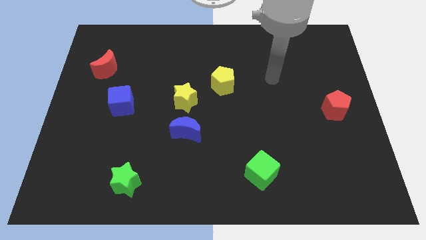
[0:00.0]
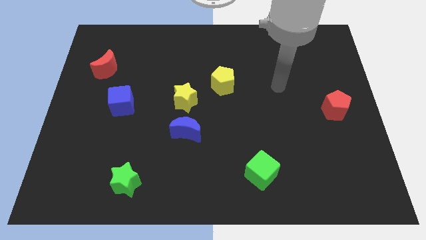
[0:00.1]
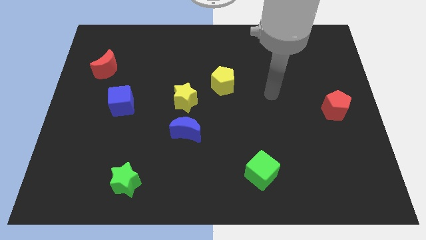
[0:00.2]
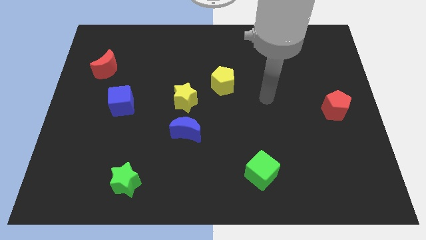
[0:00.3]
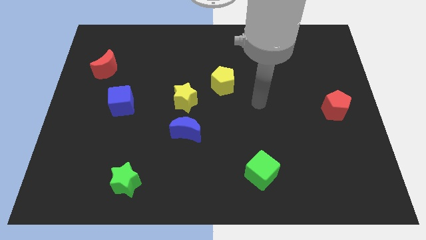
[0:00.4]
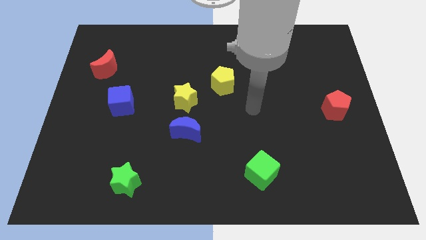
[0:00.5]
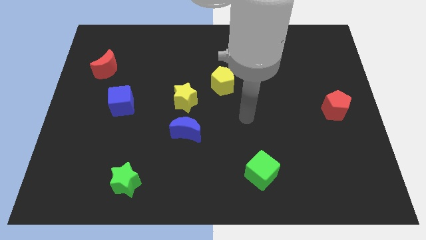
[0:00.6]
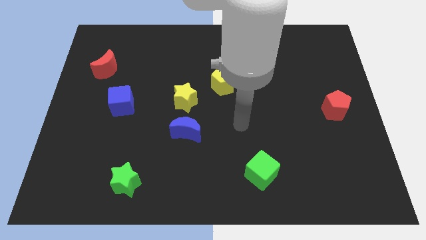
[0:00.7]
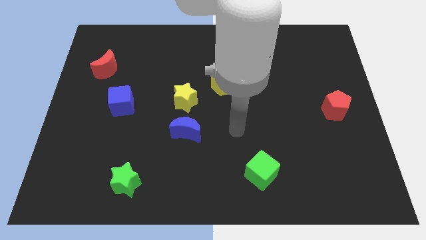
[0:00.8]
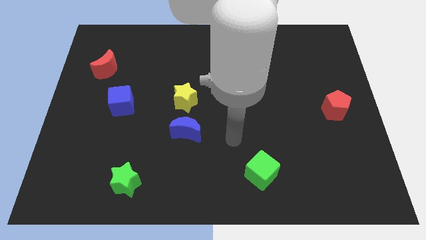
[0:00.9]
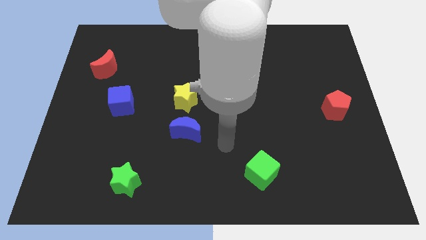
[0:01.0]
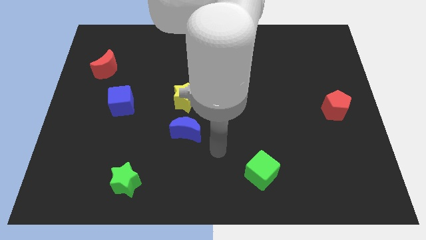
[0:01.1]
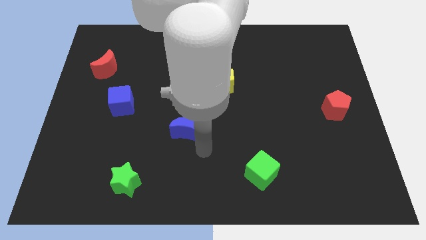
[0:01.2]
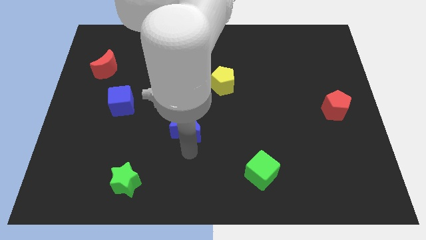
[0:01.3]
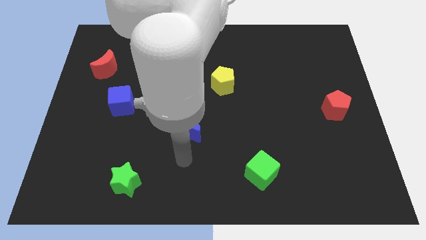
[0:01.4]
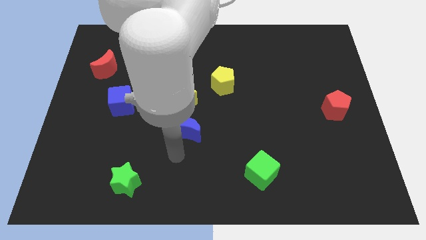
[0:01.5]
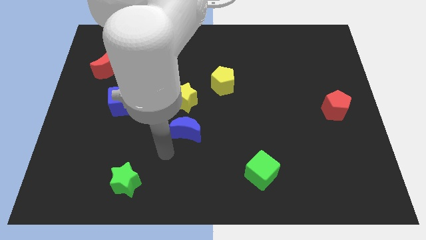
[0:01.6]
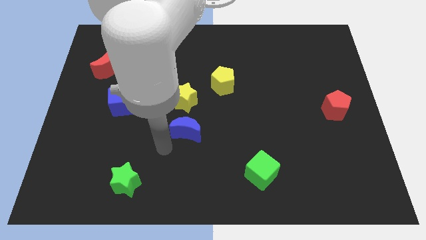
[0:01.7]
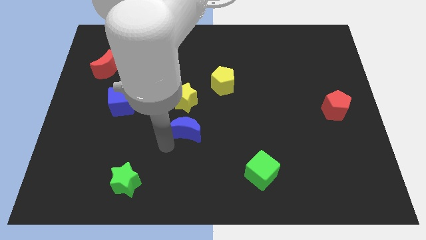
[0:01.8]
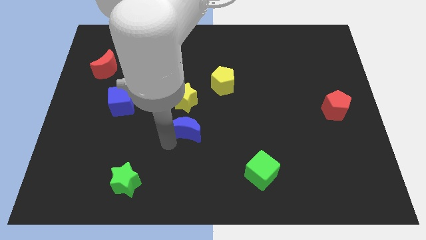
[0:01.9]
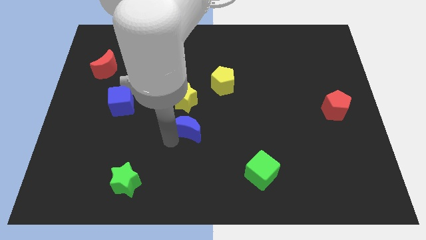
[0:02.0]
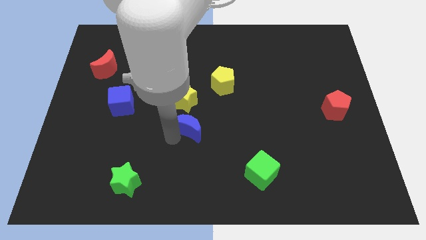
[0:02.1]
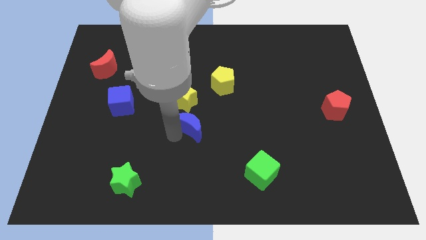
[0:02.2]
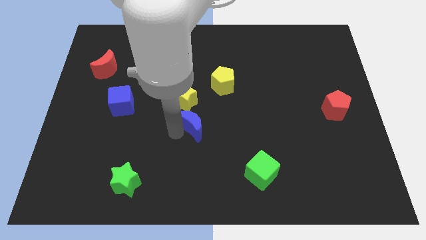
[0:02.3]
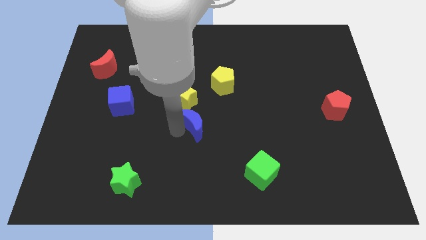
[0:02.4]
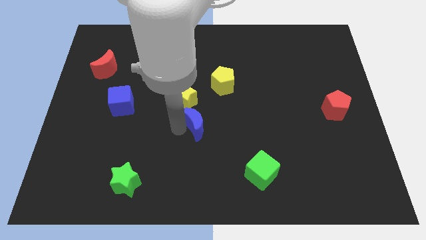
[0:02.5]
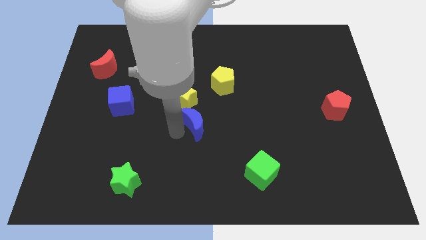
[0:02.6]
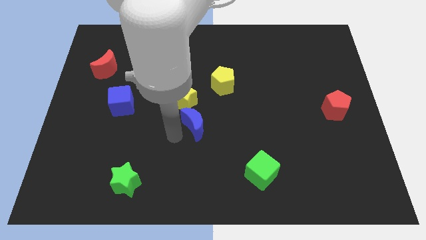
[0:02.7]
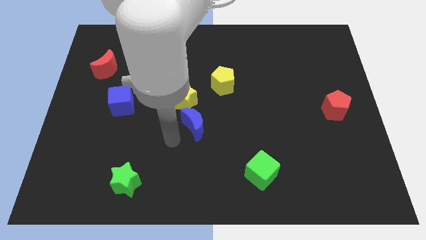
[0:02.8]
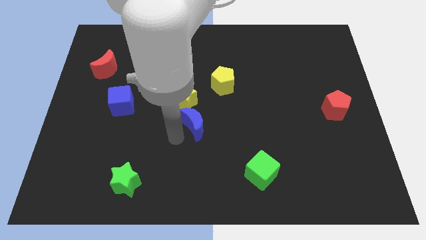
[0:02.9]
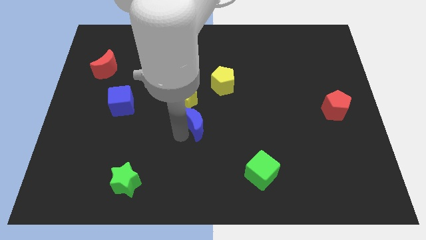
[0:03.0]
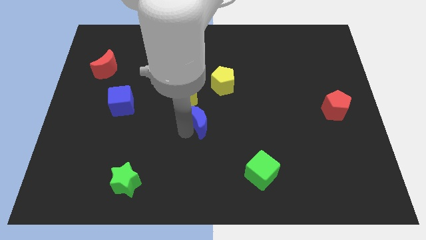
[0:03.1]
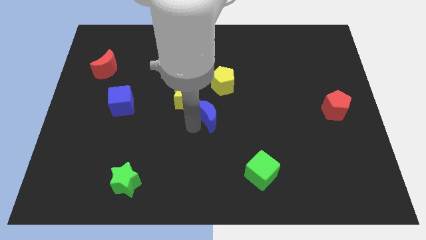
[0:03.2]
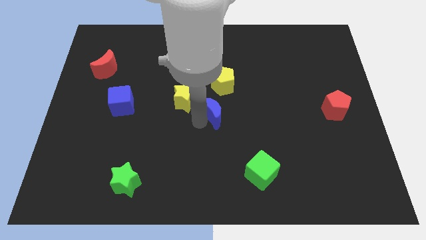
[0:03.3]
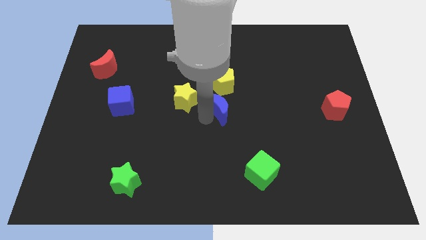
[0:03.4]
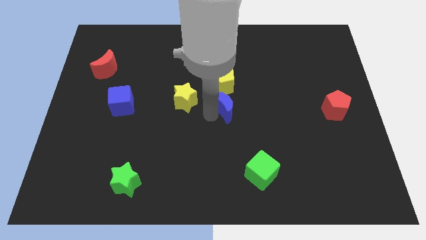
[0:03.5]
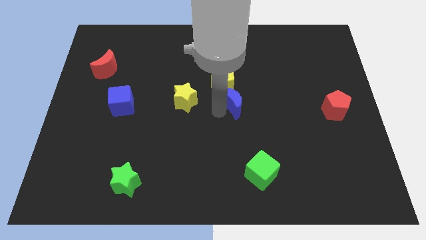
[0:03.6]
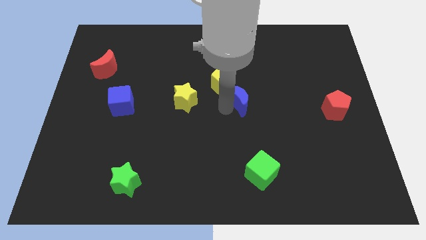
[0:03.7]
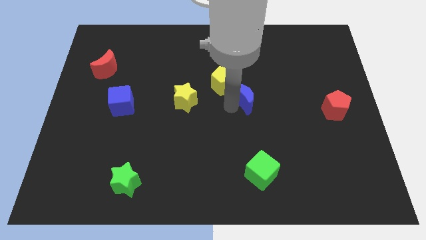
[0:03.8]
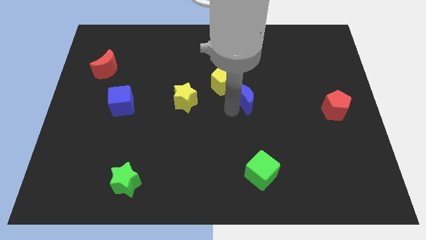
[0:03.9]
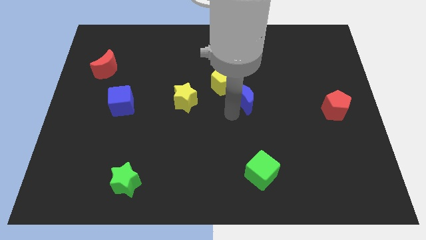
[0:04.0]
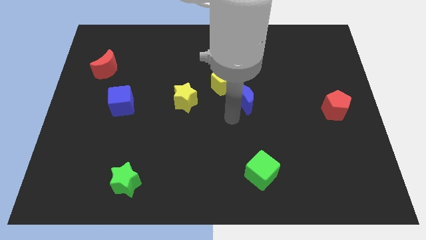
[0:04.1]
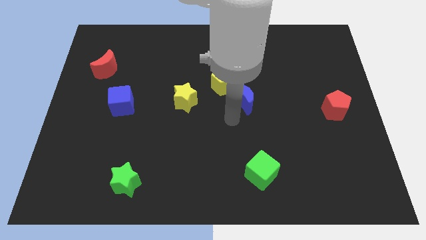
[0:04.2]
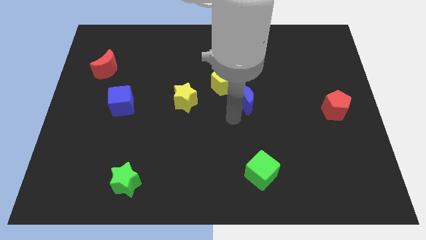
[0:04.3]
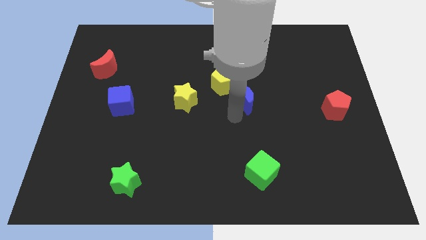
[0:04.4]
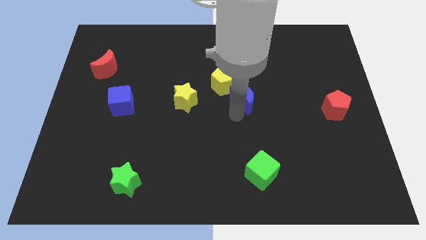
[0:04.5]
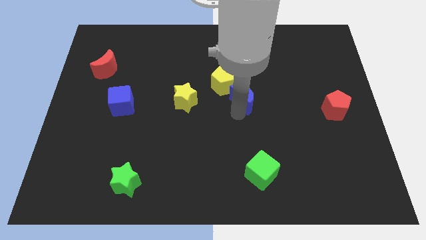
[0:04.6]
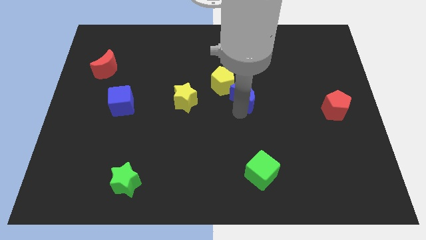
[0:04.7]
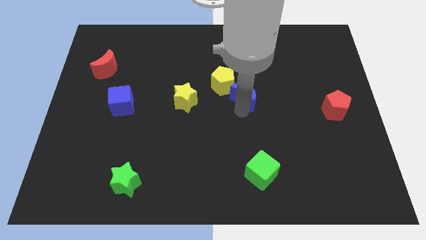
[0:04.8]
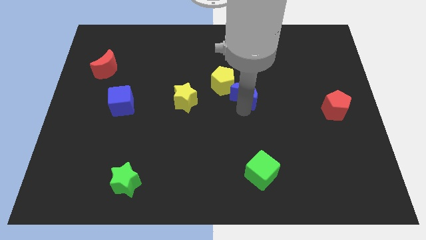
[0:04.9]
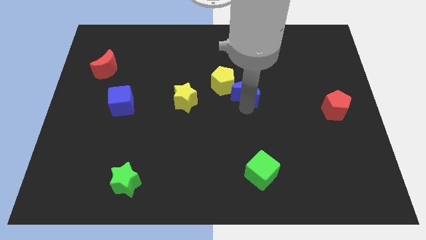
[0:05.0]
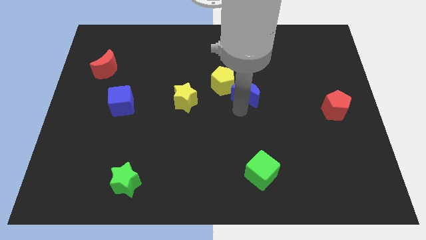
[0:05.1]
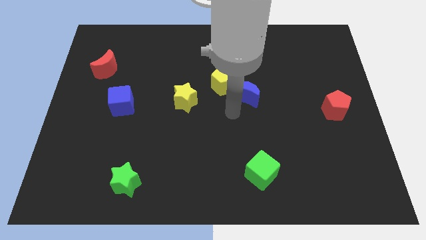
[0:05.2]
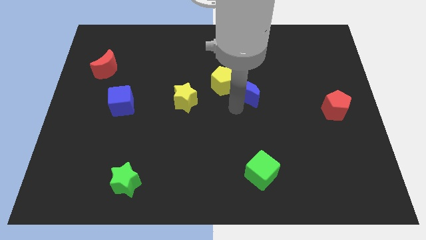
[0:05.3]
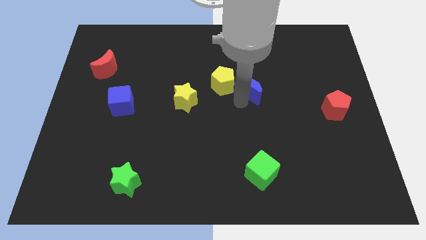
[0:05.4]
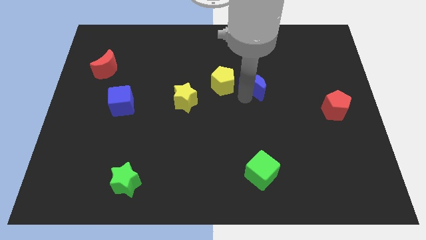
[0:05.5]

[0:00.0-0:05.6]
move the blue moon upwards and to the right diagonally

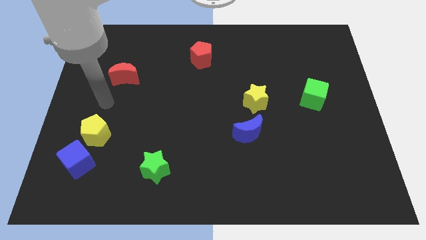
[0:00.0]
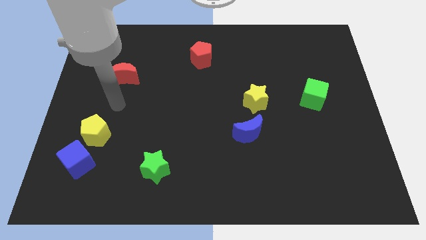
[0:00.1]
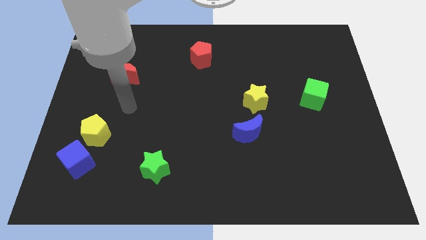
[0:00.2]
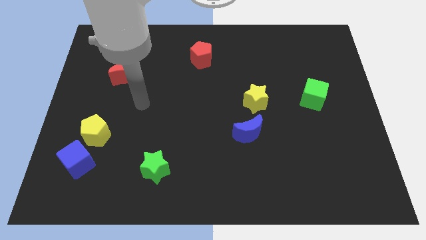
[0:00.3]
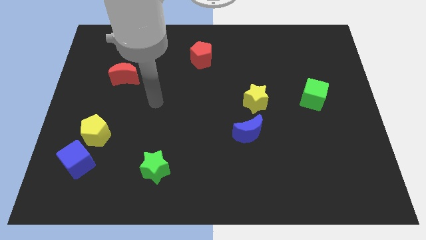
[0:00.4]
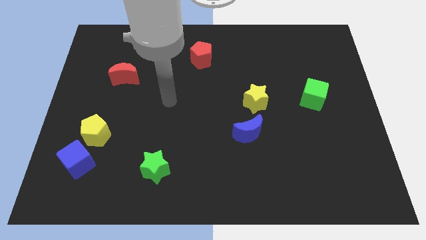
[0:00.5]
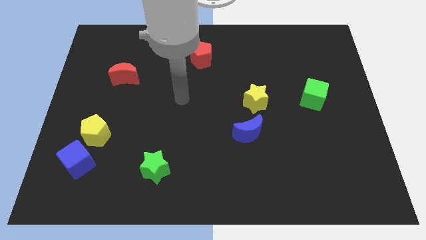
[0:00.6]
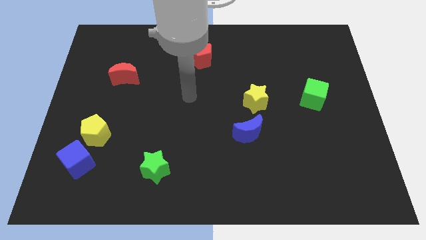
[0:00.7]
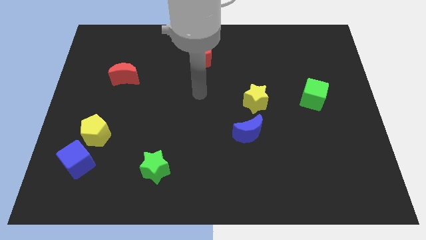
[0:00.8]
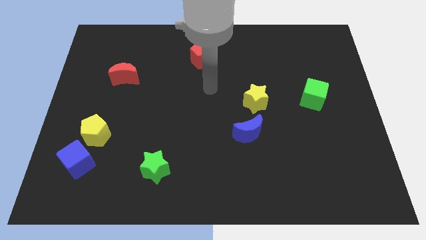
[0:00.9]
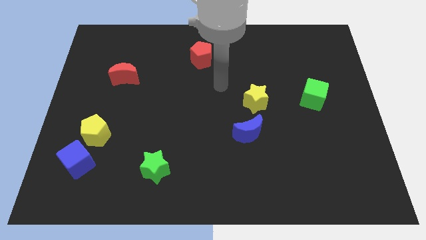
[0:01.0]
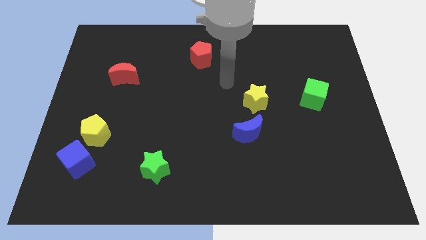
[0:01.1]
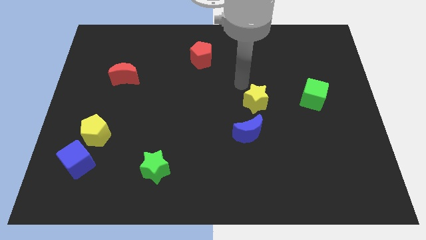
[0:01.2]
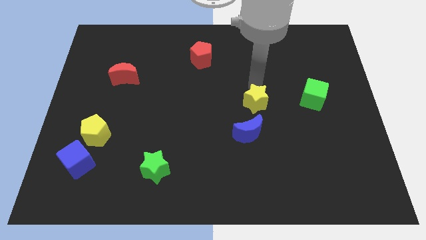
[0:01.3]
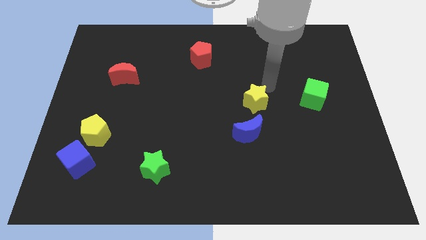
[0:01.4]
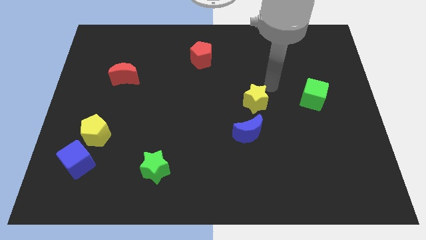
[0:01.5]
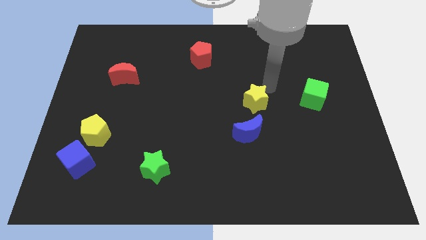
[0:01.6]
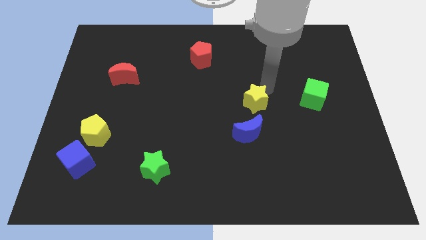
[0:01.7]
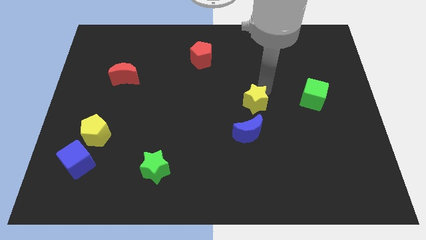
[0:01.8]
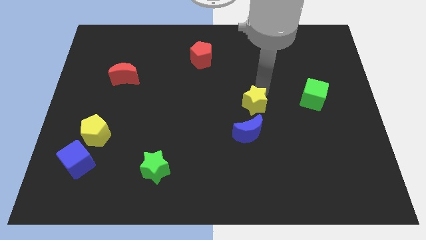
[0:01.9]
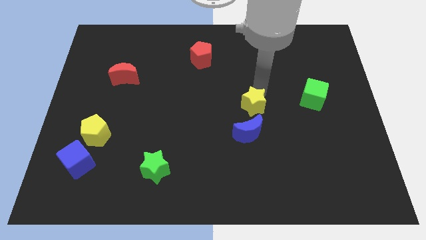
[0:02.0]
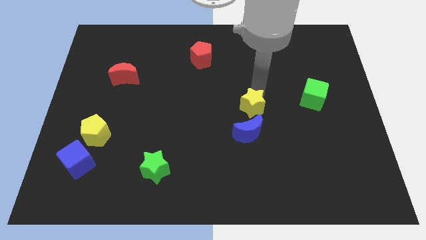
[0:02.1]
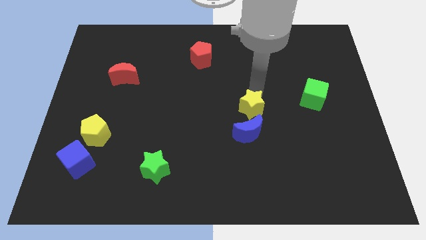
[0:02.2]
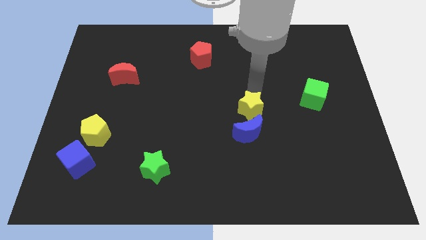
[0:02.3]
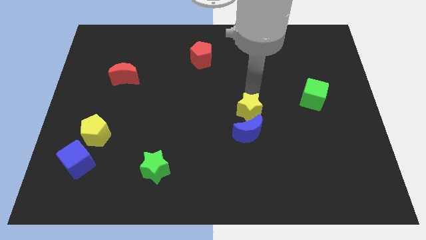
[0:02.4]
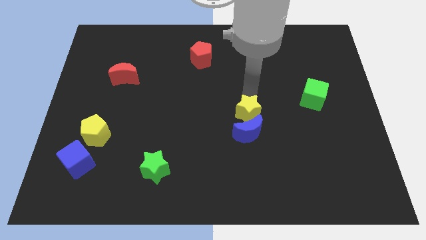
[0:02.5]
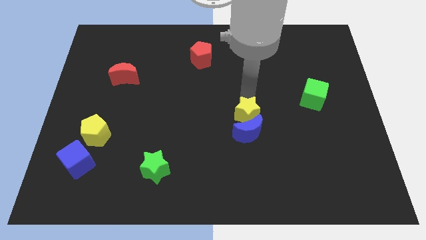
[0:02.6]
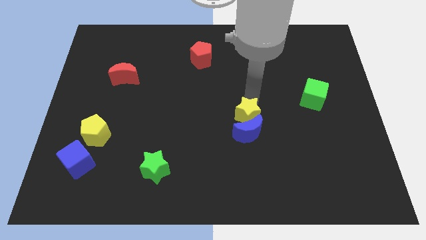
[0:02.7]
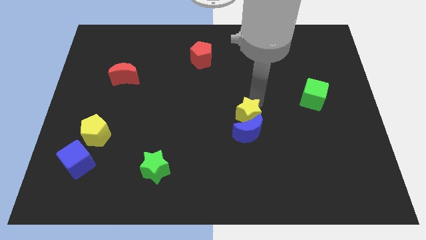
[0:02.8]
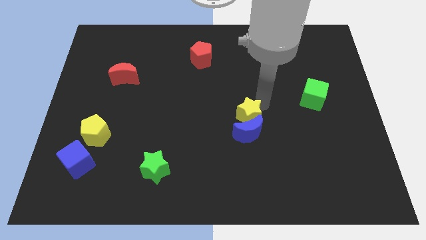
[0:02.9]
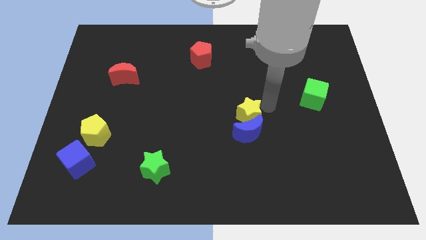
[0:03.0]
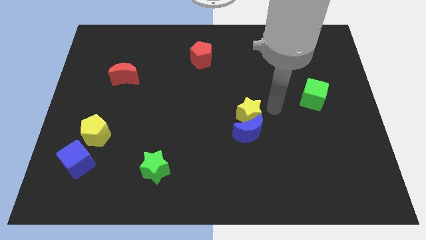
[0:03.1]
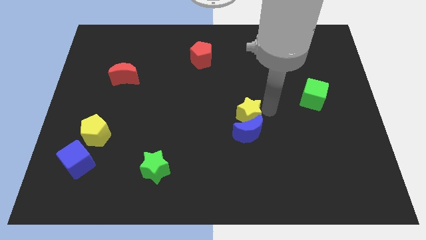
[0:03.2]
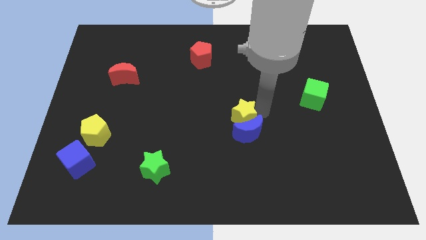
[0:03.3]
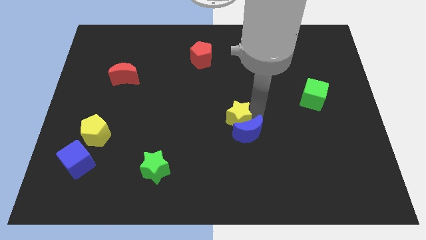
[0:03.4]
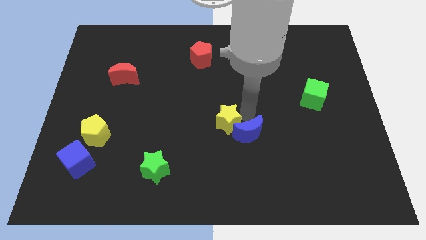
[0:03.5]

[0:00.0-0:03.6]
move the yellow star downwards and to the left diagonally slightly
